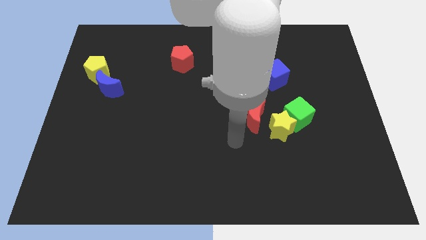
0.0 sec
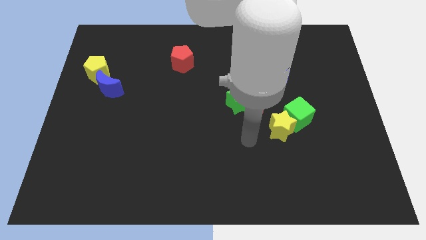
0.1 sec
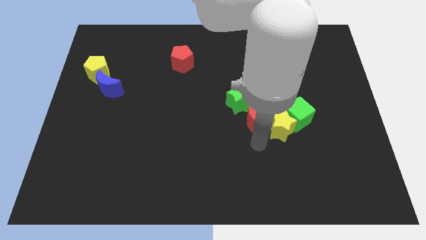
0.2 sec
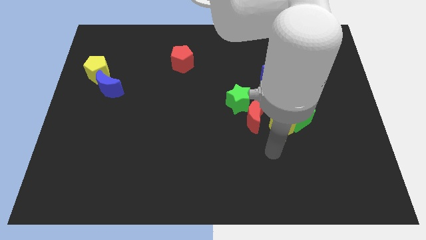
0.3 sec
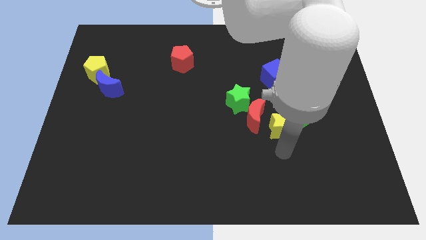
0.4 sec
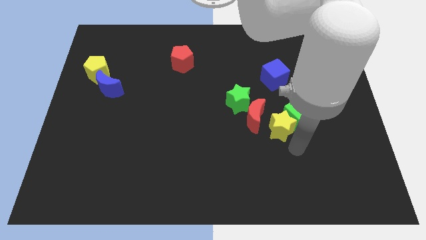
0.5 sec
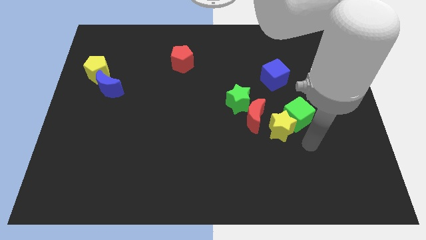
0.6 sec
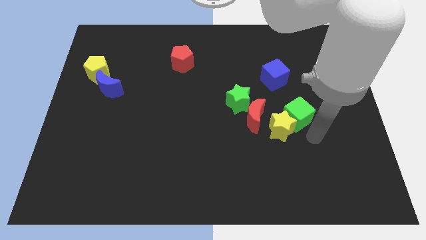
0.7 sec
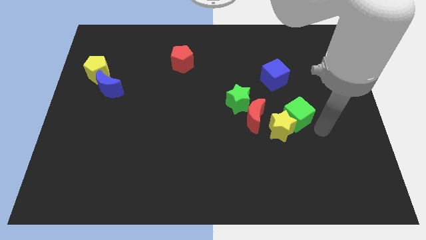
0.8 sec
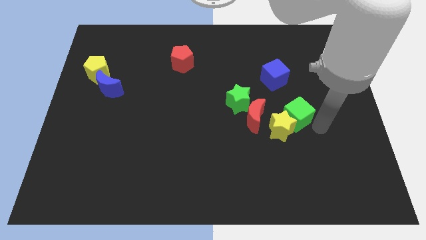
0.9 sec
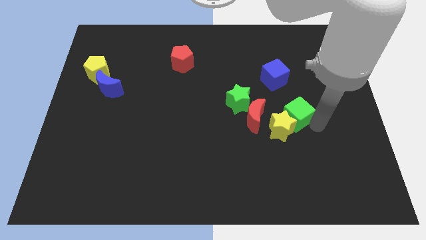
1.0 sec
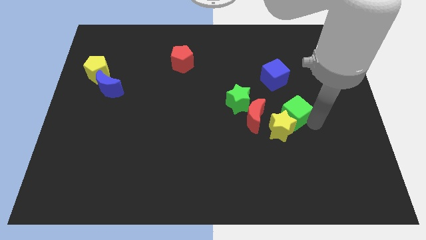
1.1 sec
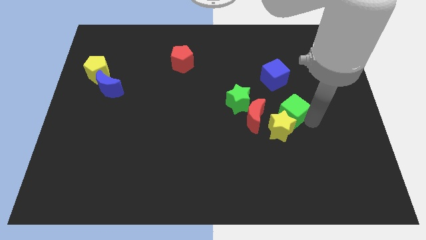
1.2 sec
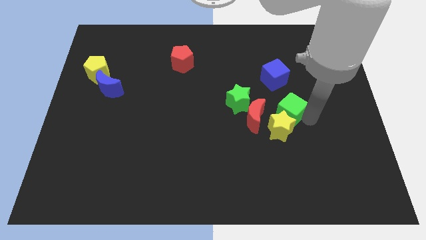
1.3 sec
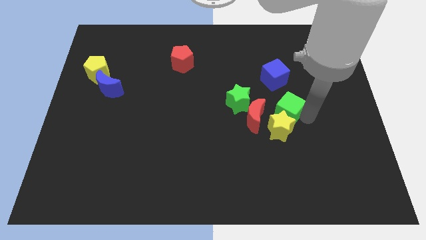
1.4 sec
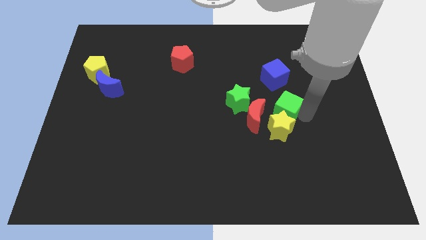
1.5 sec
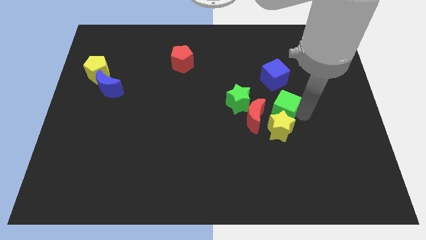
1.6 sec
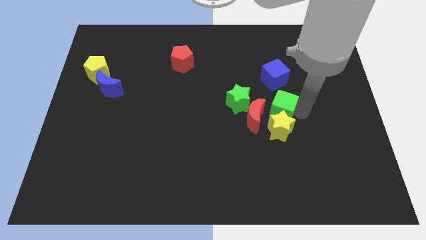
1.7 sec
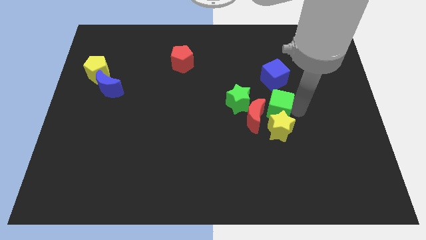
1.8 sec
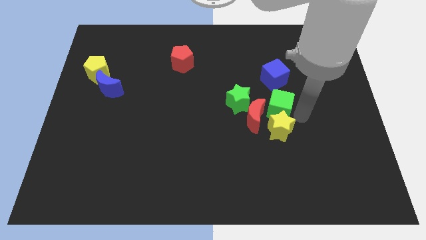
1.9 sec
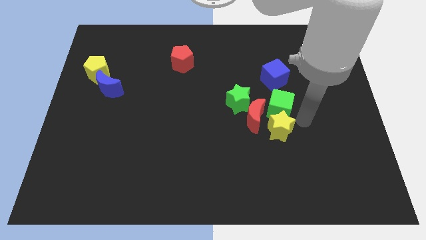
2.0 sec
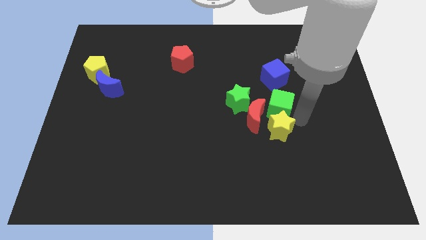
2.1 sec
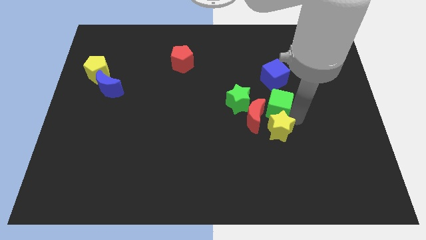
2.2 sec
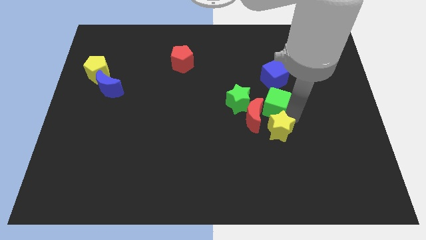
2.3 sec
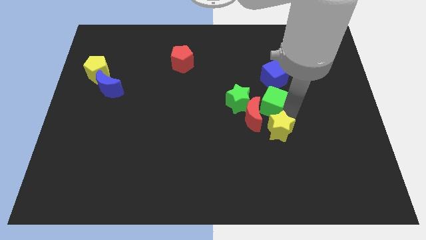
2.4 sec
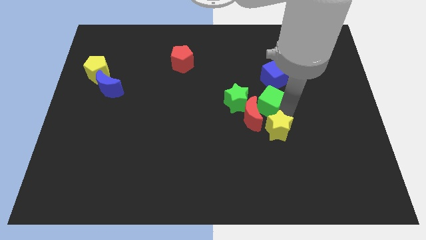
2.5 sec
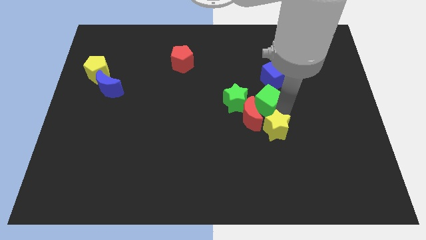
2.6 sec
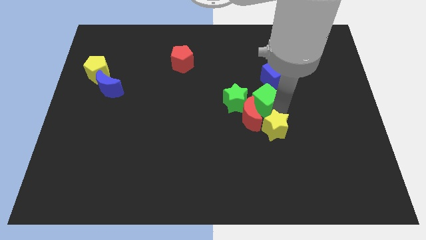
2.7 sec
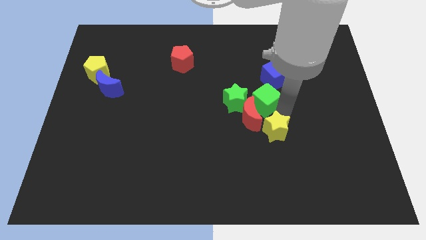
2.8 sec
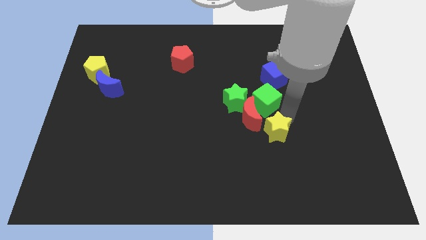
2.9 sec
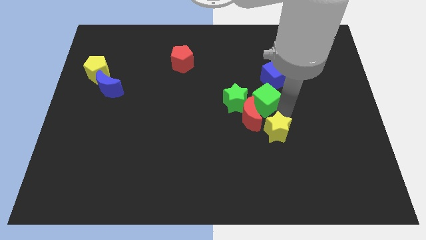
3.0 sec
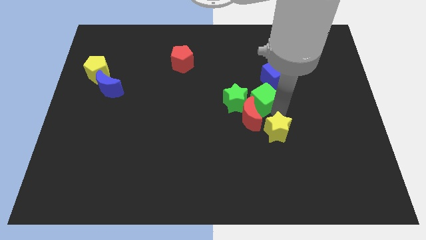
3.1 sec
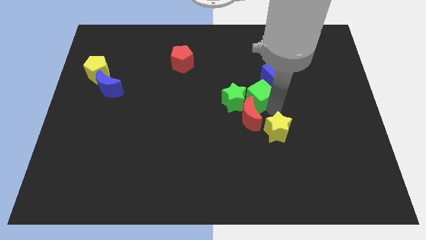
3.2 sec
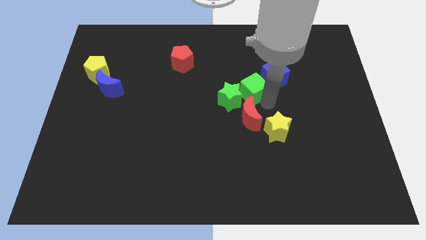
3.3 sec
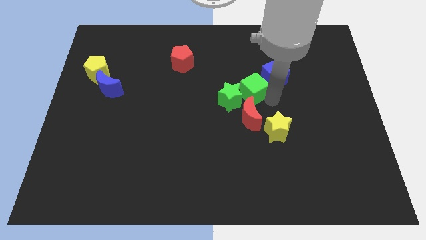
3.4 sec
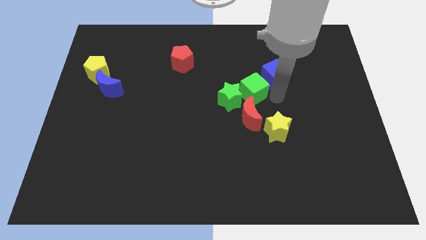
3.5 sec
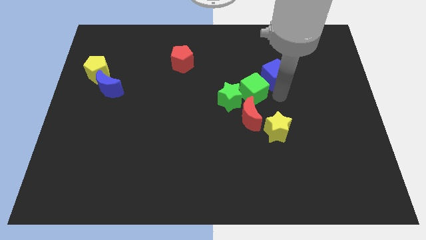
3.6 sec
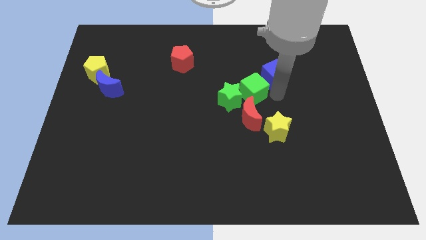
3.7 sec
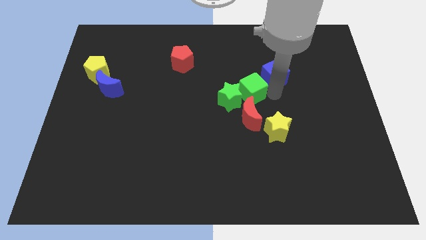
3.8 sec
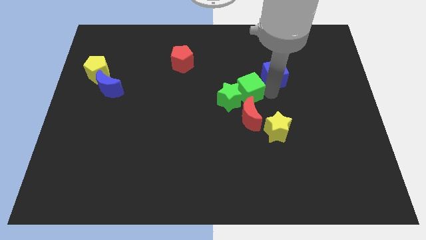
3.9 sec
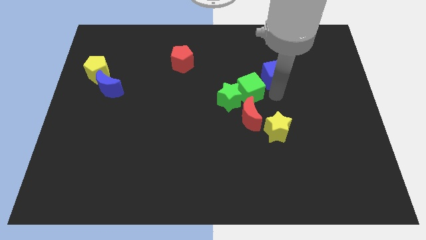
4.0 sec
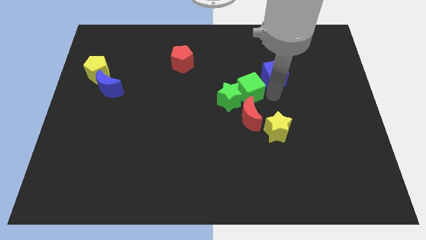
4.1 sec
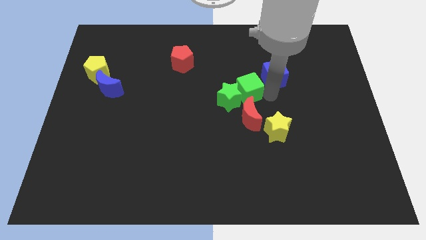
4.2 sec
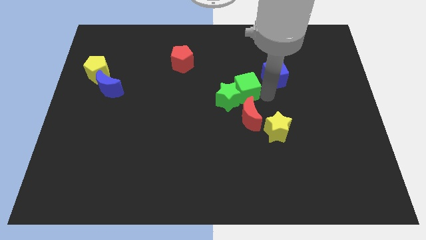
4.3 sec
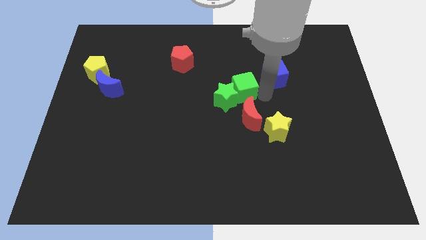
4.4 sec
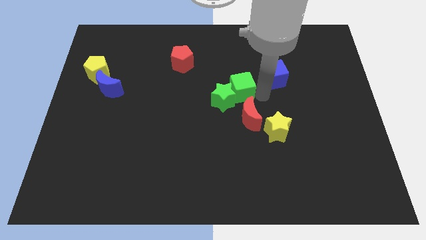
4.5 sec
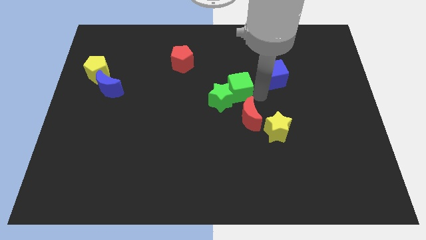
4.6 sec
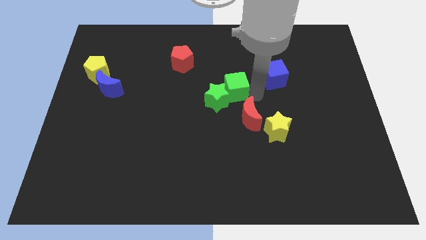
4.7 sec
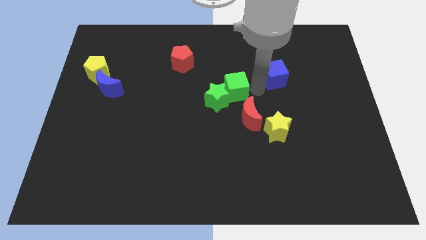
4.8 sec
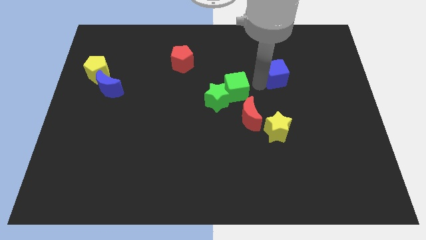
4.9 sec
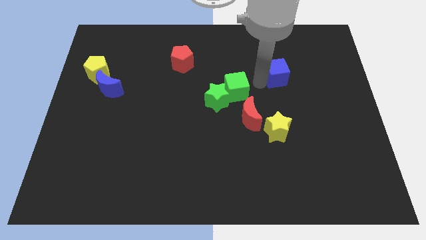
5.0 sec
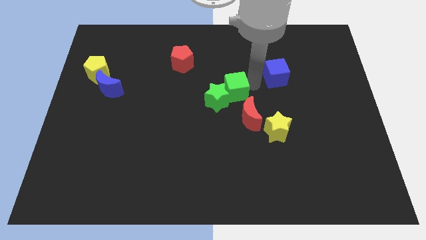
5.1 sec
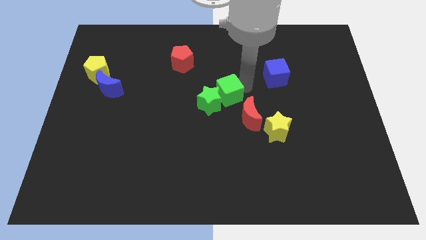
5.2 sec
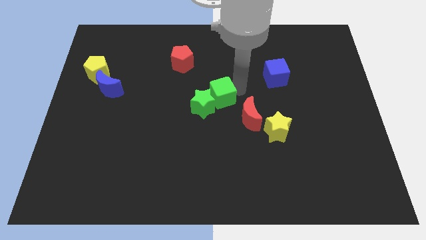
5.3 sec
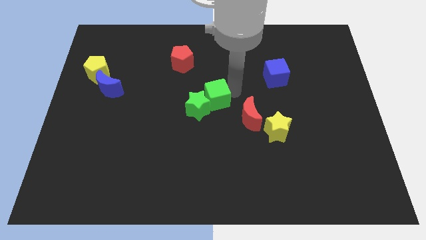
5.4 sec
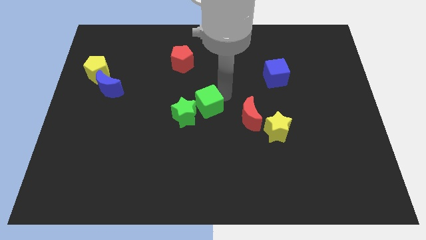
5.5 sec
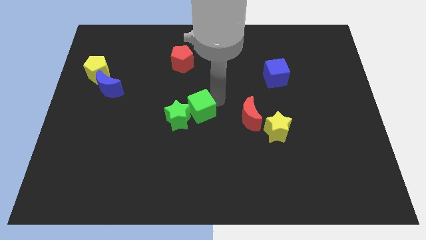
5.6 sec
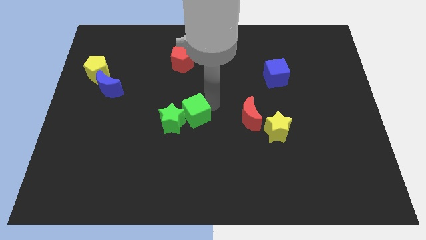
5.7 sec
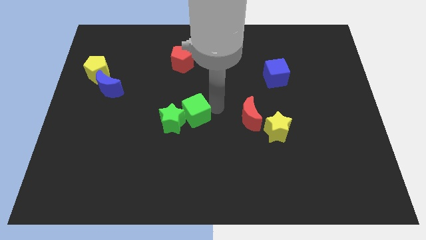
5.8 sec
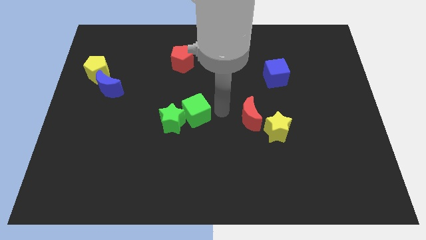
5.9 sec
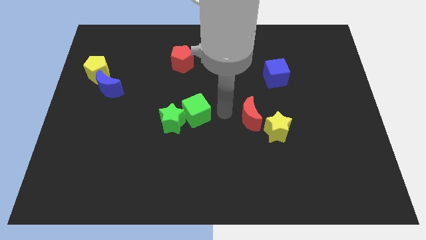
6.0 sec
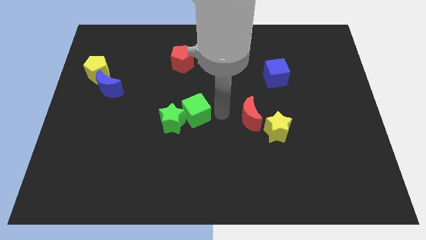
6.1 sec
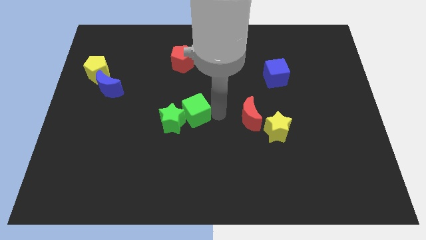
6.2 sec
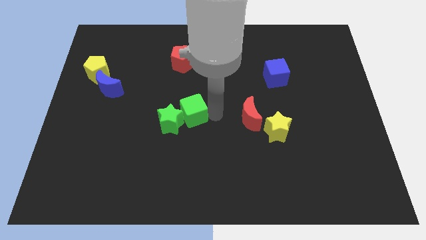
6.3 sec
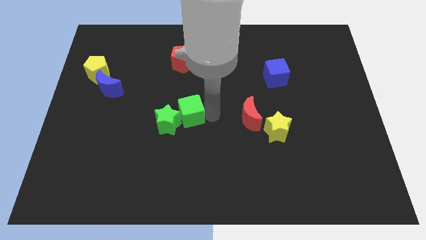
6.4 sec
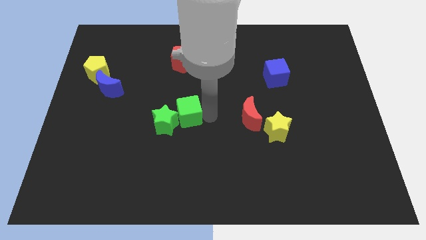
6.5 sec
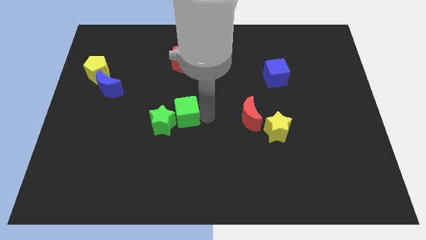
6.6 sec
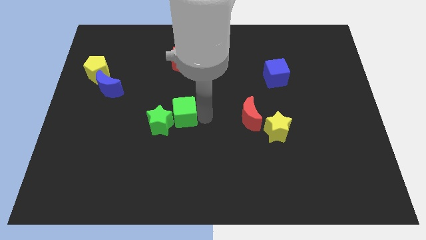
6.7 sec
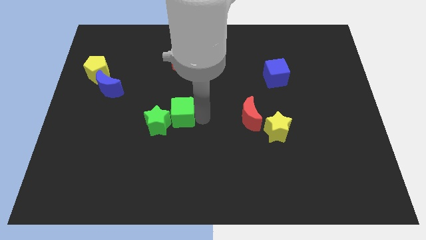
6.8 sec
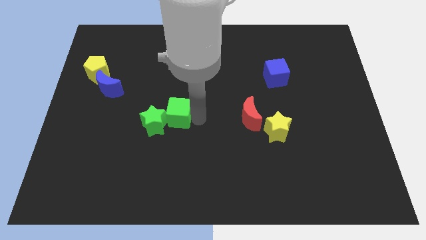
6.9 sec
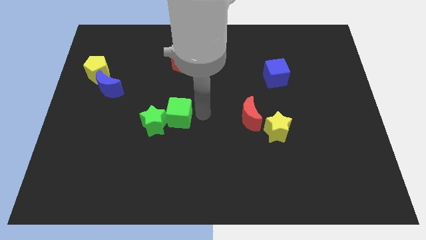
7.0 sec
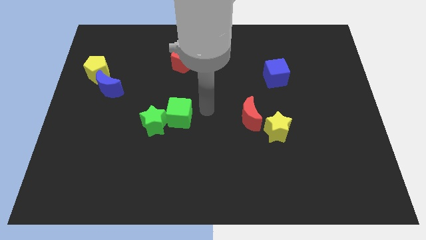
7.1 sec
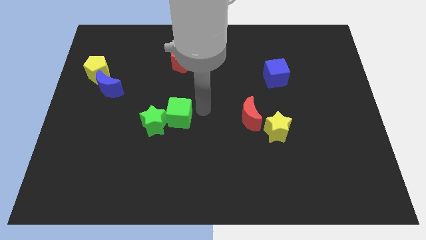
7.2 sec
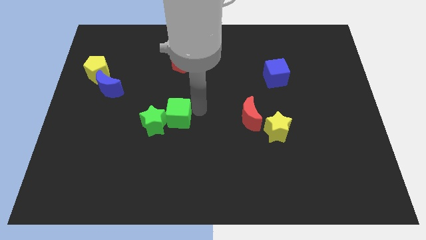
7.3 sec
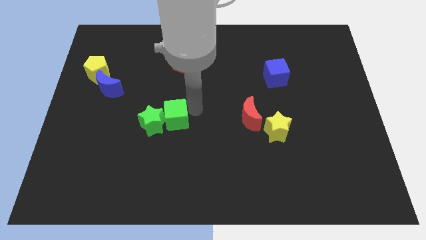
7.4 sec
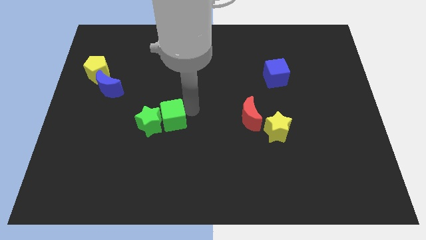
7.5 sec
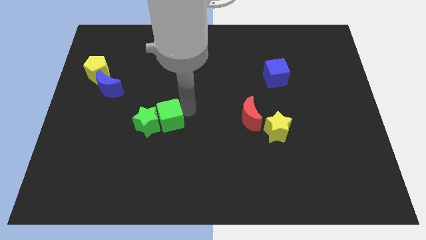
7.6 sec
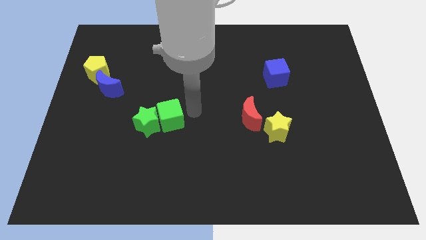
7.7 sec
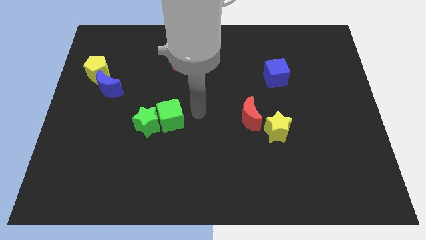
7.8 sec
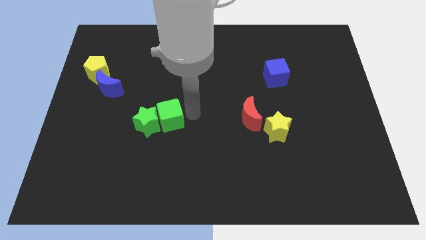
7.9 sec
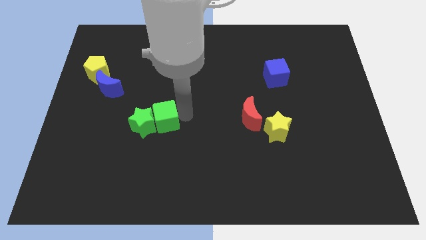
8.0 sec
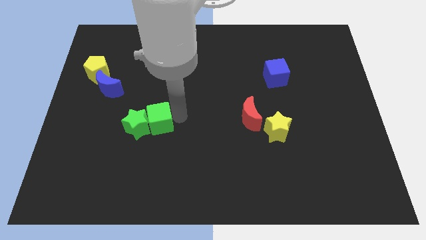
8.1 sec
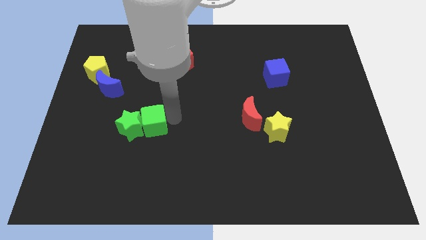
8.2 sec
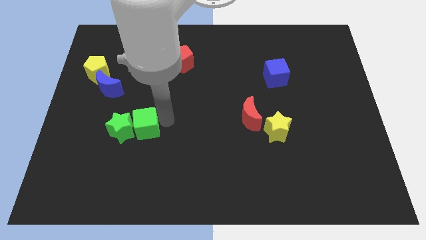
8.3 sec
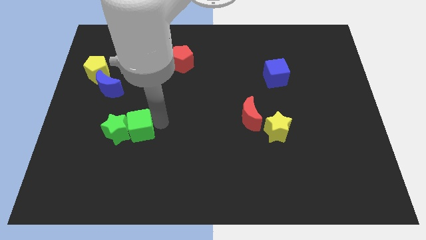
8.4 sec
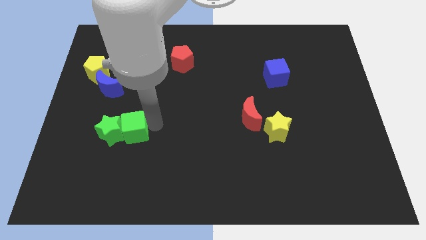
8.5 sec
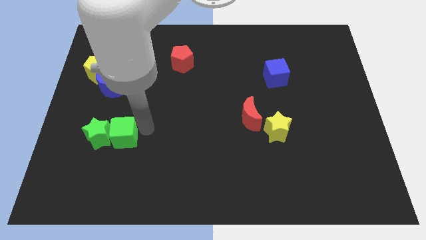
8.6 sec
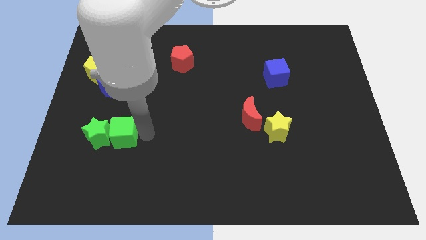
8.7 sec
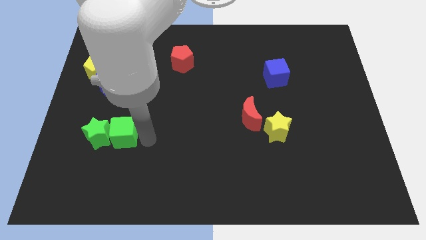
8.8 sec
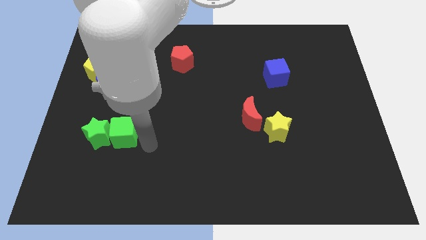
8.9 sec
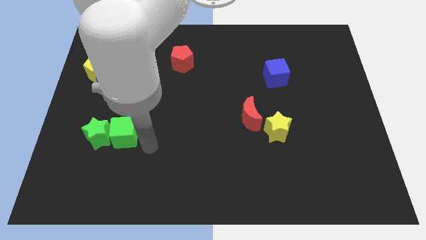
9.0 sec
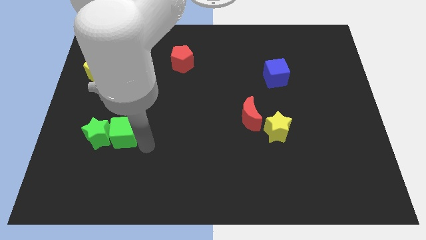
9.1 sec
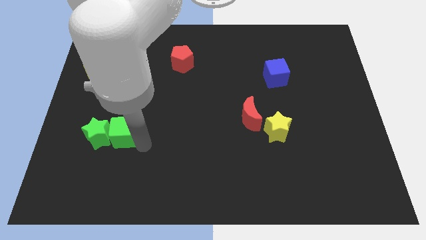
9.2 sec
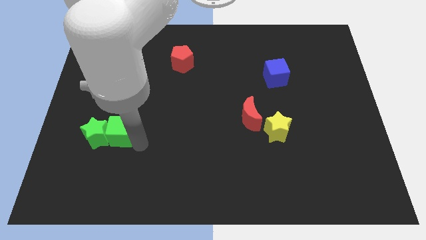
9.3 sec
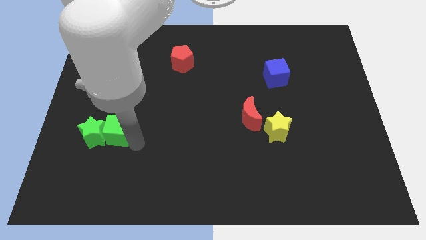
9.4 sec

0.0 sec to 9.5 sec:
push the green cube to the bottom side of the blue moon
